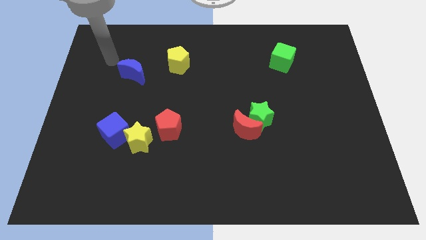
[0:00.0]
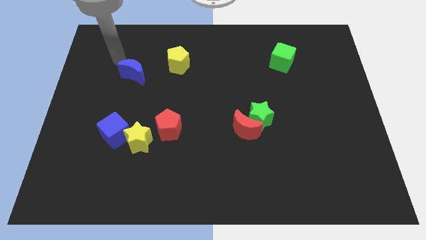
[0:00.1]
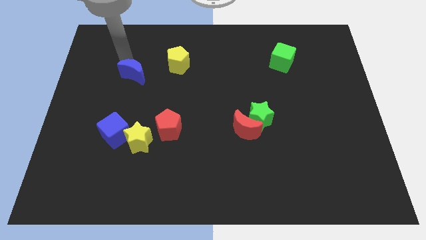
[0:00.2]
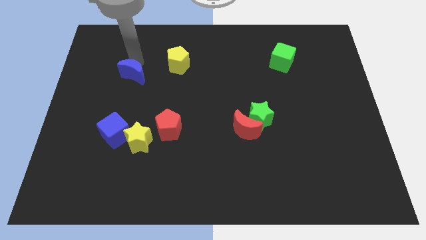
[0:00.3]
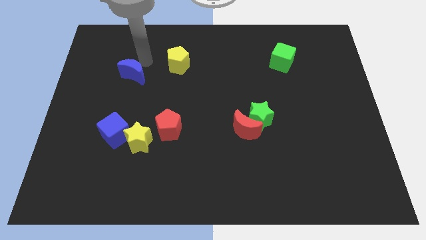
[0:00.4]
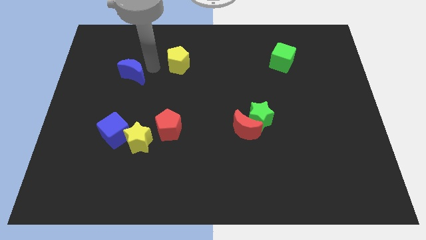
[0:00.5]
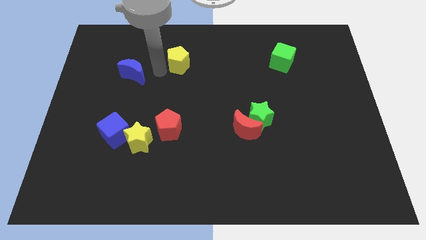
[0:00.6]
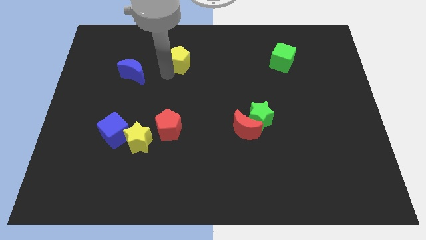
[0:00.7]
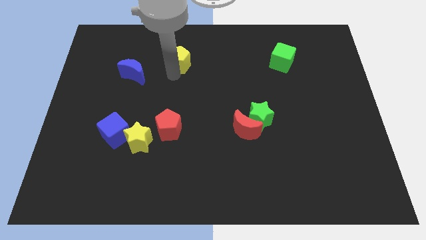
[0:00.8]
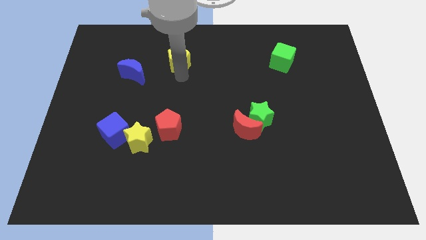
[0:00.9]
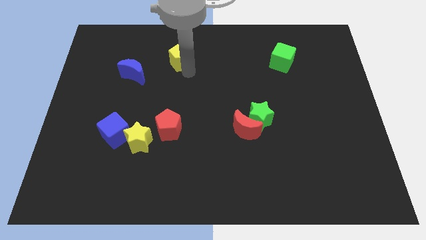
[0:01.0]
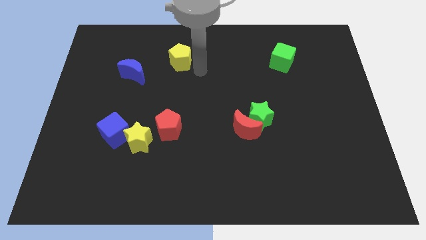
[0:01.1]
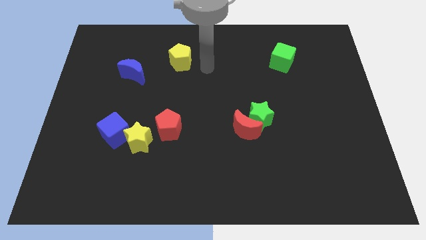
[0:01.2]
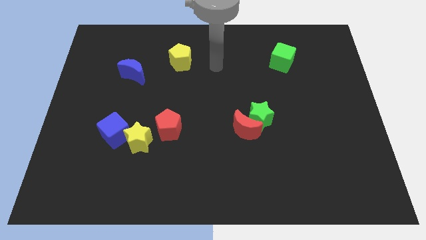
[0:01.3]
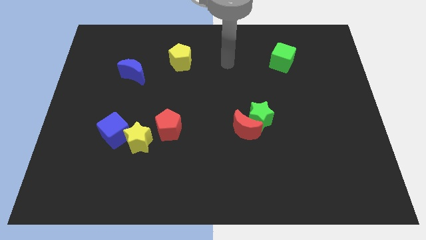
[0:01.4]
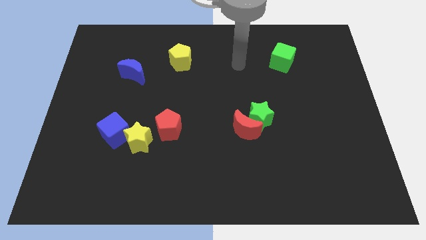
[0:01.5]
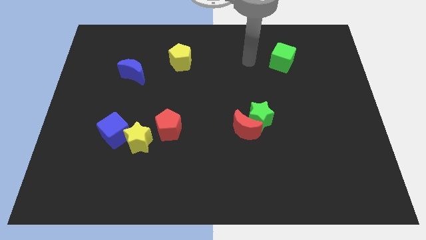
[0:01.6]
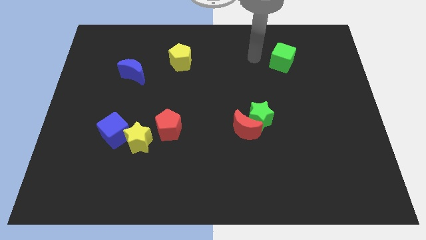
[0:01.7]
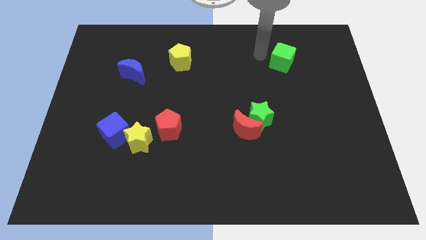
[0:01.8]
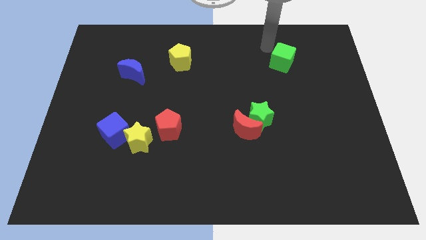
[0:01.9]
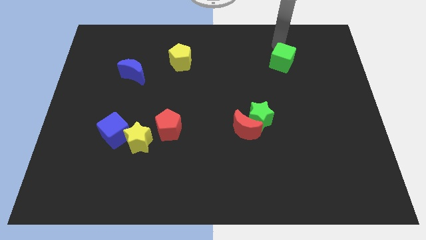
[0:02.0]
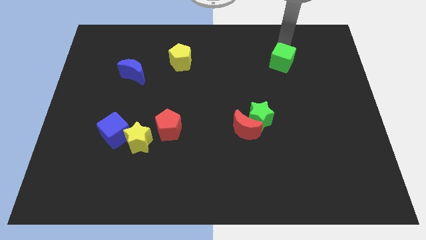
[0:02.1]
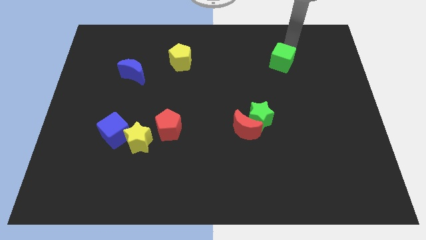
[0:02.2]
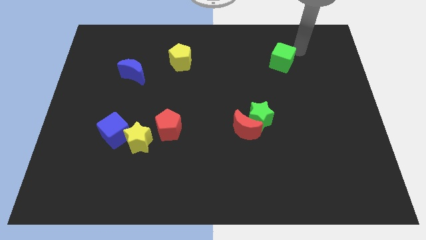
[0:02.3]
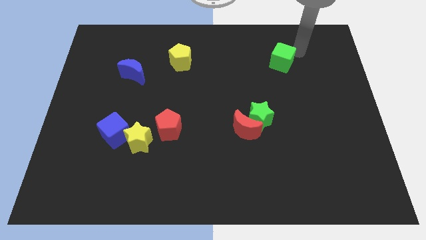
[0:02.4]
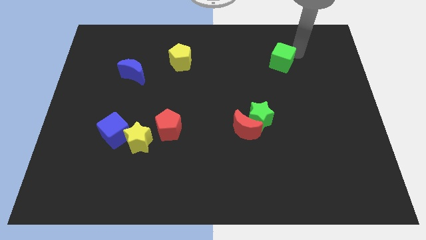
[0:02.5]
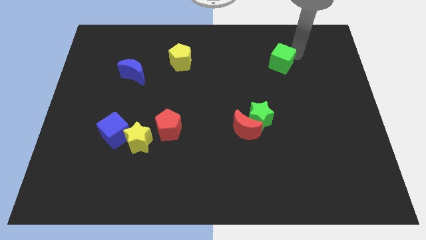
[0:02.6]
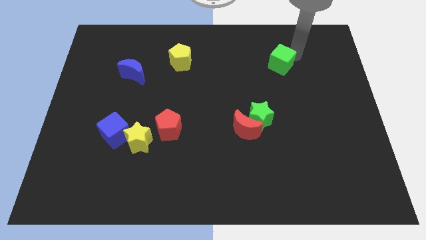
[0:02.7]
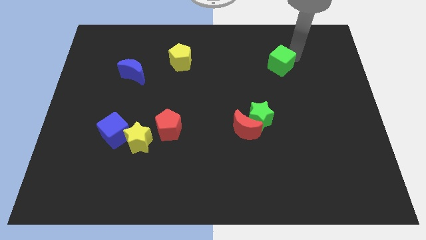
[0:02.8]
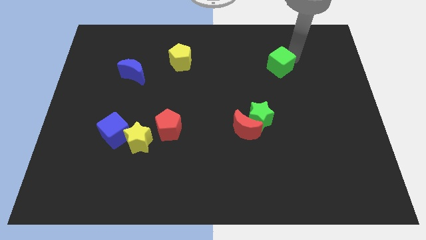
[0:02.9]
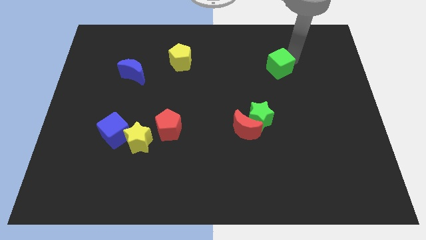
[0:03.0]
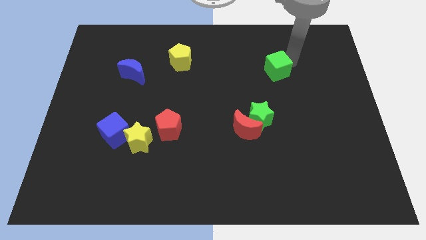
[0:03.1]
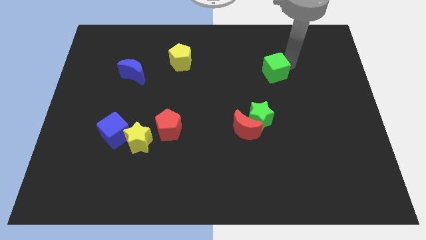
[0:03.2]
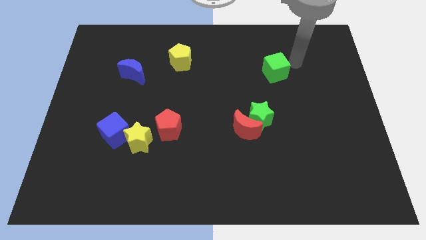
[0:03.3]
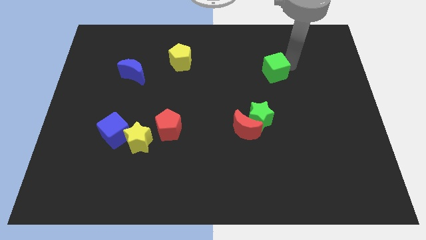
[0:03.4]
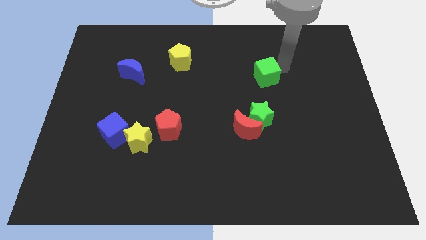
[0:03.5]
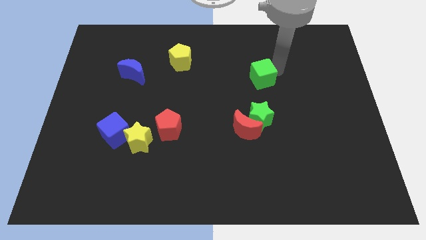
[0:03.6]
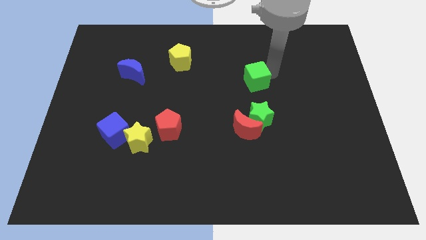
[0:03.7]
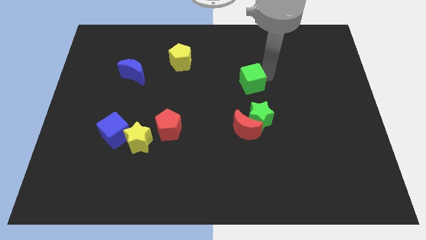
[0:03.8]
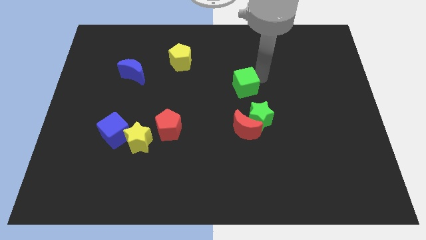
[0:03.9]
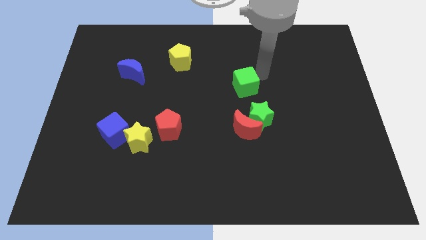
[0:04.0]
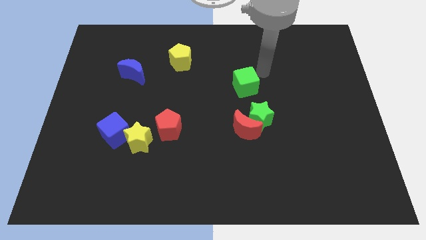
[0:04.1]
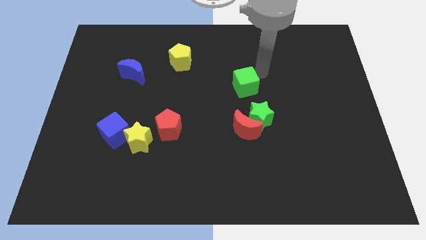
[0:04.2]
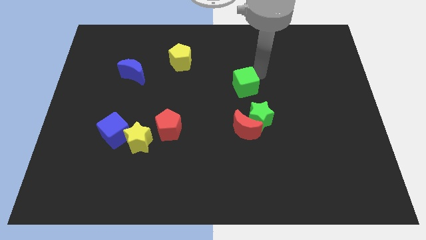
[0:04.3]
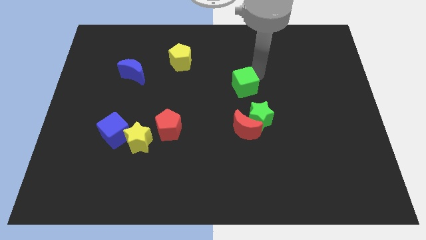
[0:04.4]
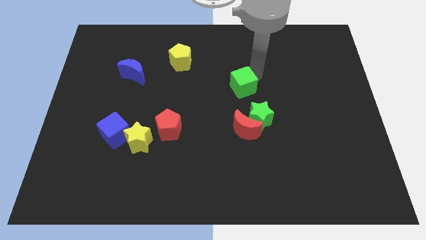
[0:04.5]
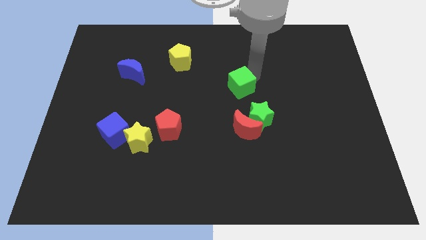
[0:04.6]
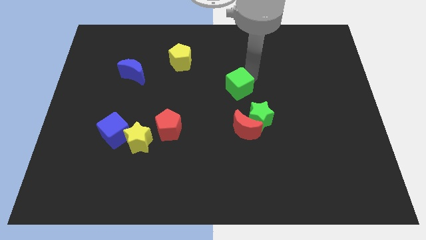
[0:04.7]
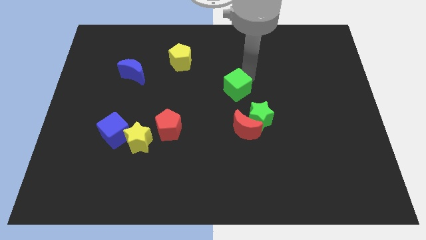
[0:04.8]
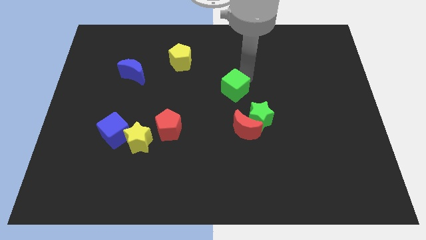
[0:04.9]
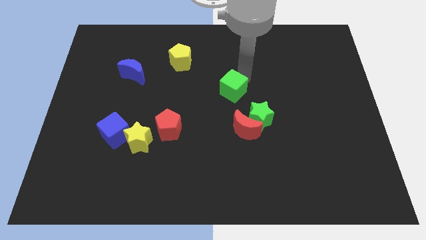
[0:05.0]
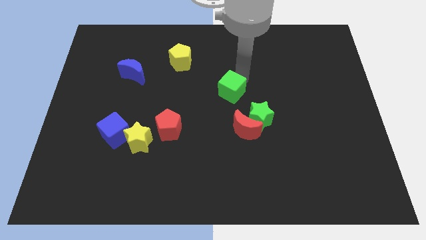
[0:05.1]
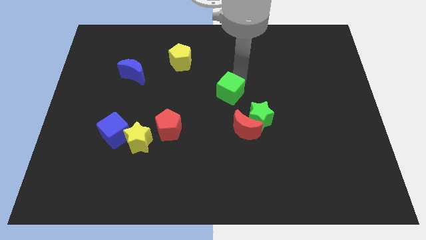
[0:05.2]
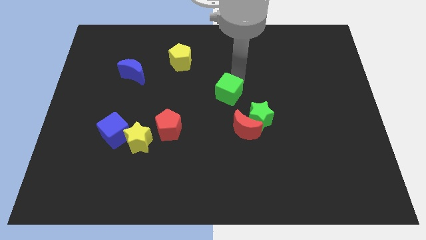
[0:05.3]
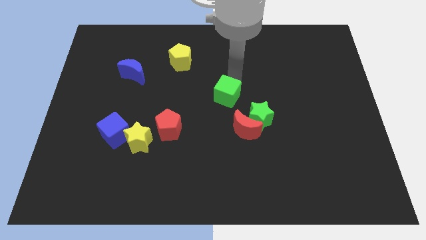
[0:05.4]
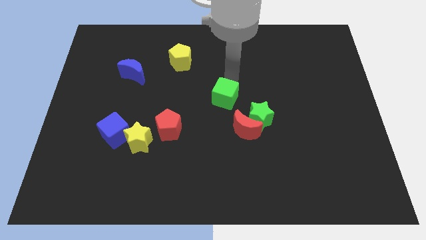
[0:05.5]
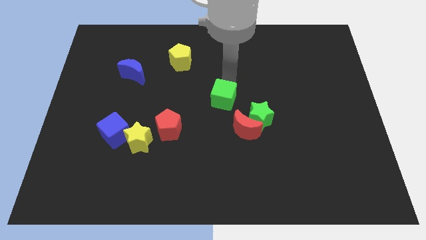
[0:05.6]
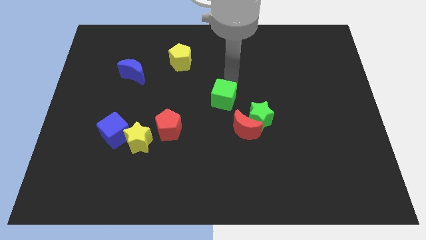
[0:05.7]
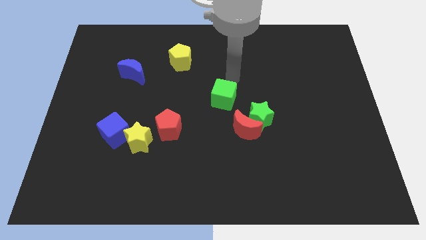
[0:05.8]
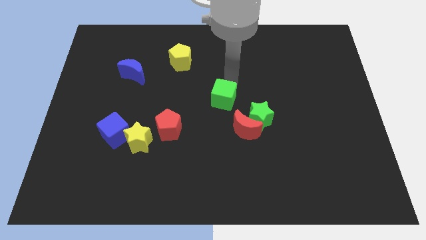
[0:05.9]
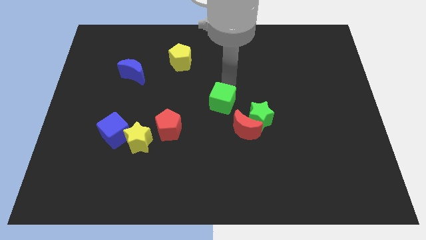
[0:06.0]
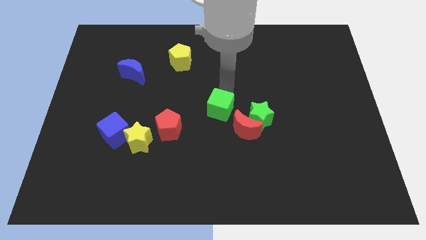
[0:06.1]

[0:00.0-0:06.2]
put the green cube to the left side of the green star

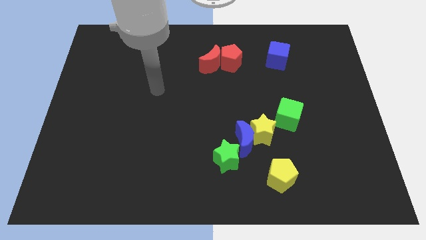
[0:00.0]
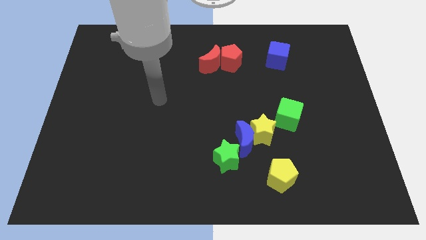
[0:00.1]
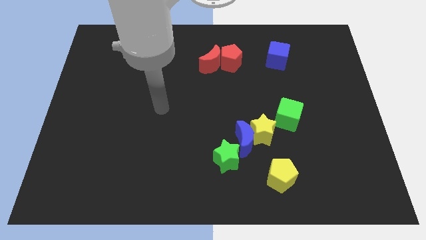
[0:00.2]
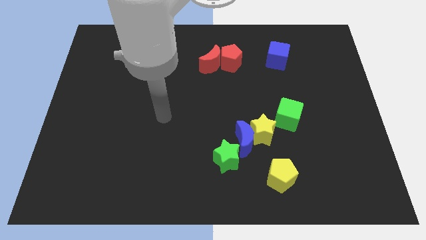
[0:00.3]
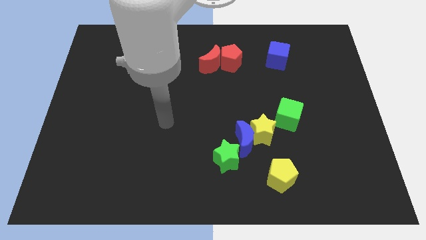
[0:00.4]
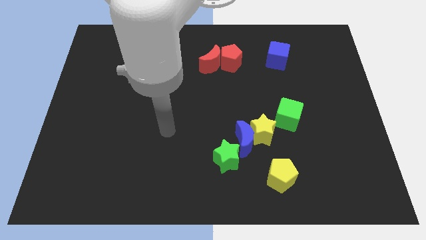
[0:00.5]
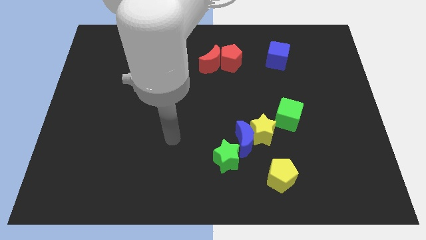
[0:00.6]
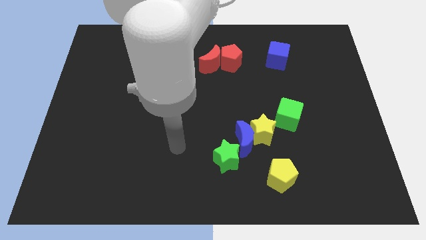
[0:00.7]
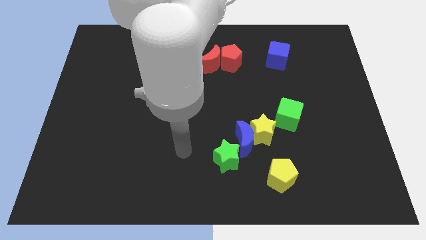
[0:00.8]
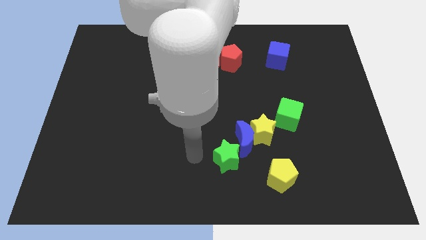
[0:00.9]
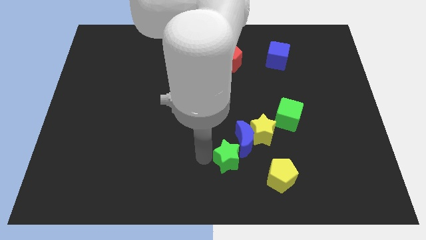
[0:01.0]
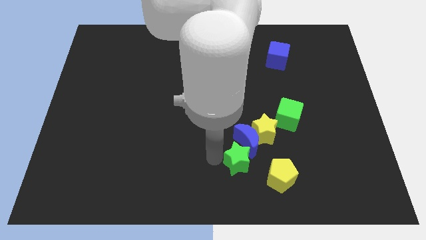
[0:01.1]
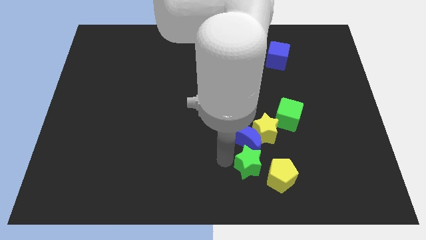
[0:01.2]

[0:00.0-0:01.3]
move the green star to the bottom right side of the blue moon
